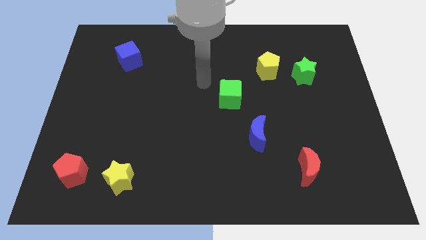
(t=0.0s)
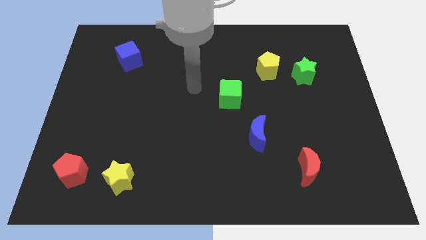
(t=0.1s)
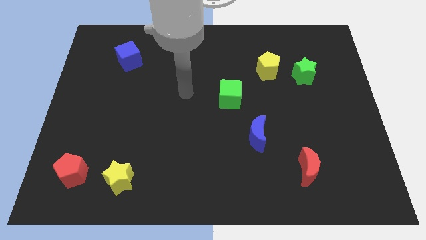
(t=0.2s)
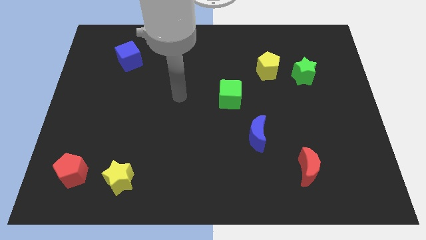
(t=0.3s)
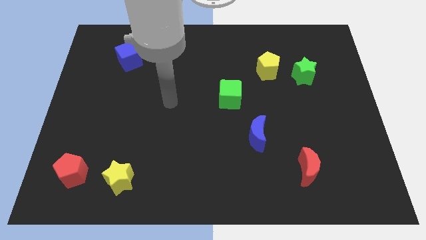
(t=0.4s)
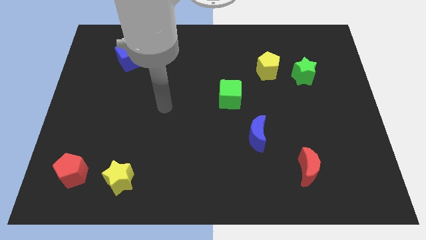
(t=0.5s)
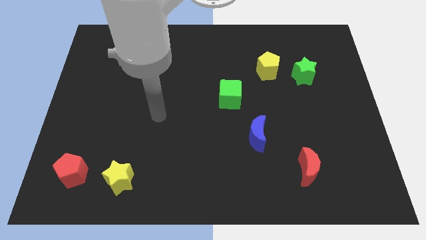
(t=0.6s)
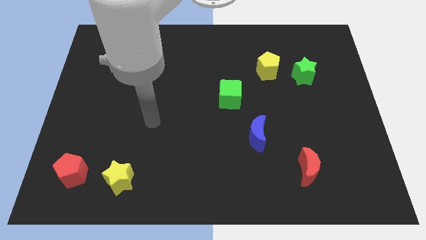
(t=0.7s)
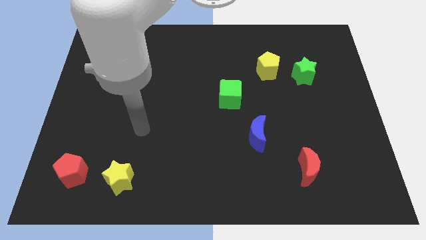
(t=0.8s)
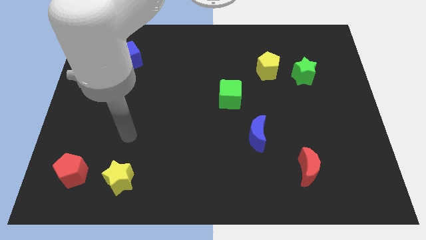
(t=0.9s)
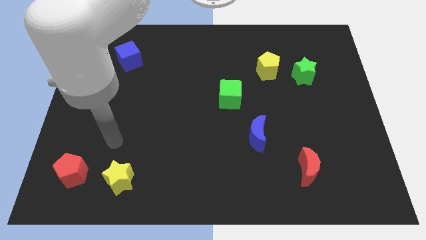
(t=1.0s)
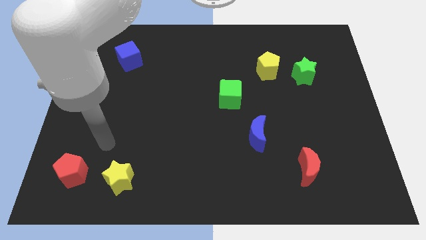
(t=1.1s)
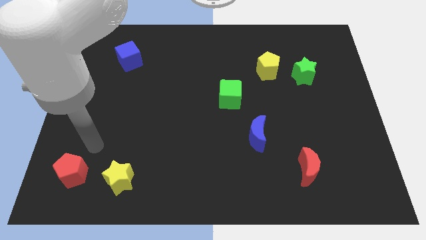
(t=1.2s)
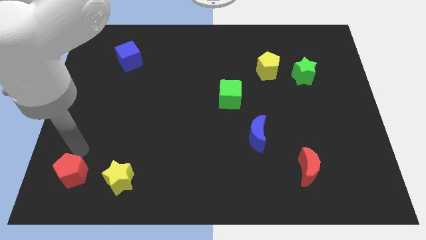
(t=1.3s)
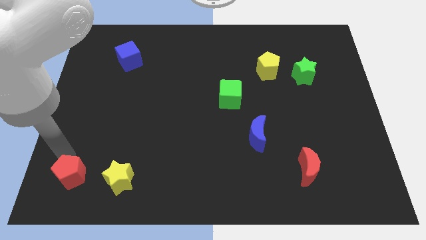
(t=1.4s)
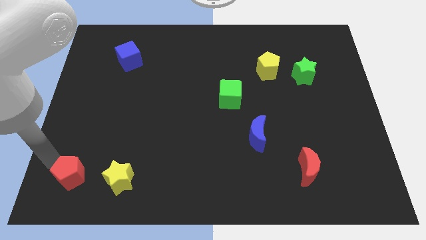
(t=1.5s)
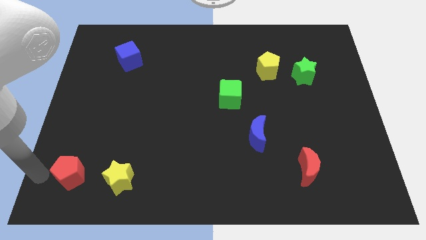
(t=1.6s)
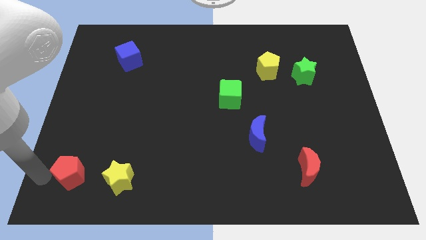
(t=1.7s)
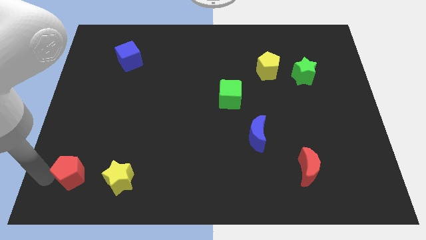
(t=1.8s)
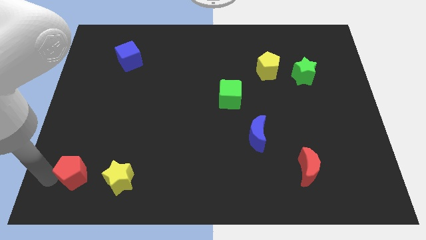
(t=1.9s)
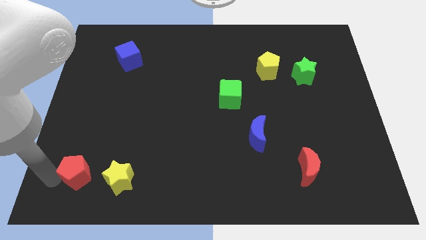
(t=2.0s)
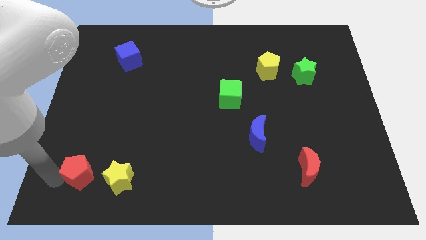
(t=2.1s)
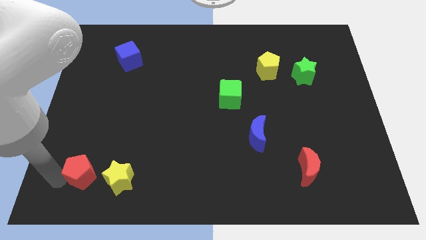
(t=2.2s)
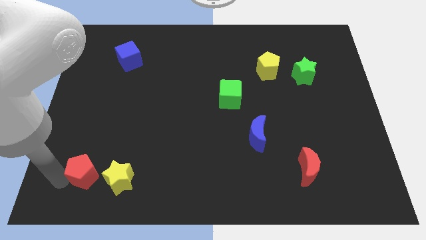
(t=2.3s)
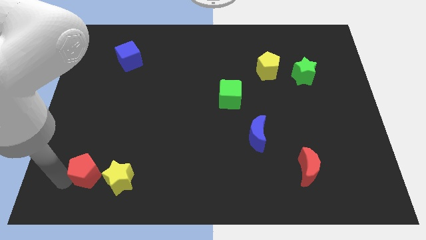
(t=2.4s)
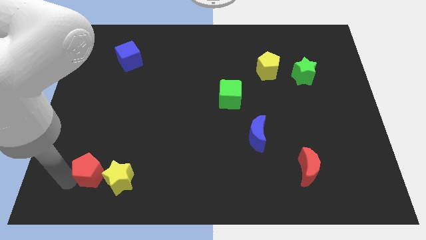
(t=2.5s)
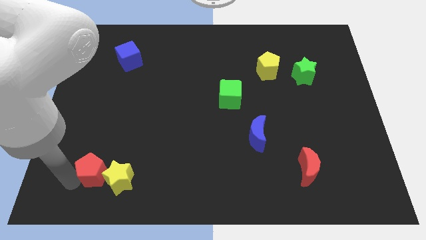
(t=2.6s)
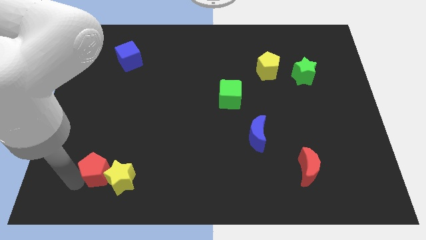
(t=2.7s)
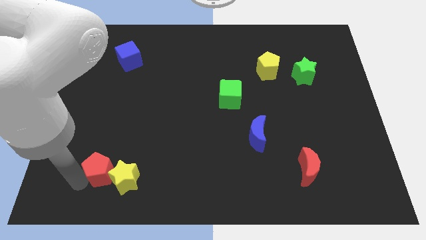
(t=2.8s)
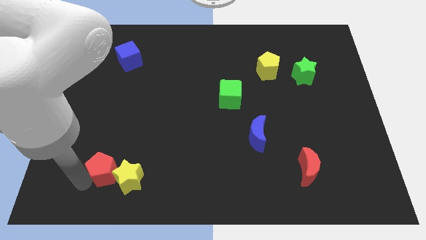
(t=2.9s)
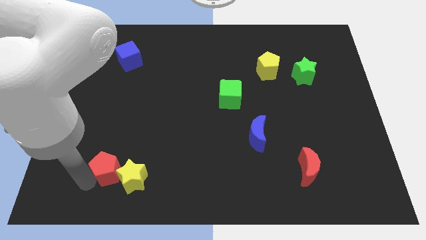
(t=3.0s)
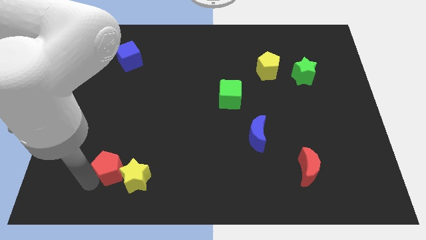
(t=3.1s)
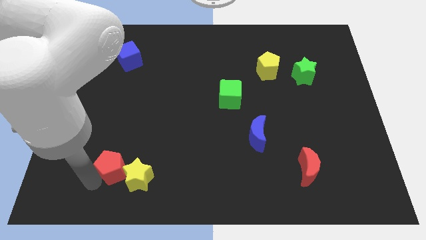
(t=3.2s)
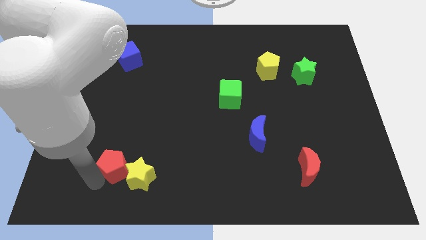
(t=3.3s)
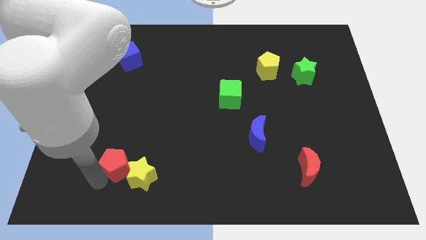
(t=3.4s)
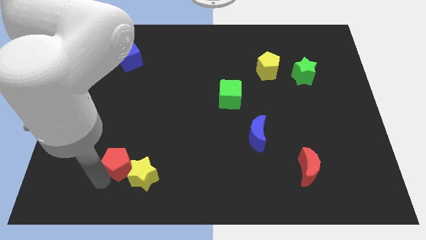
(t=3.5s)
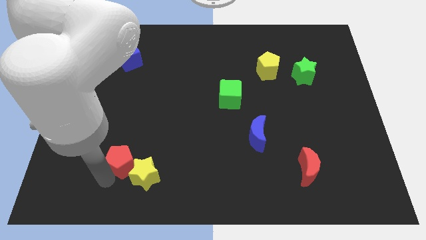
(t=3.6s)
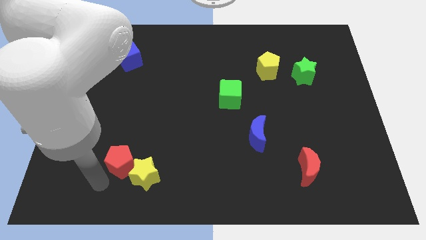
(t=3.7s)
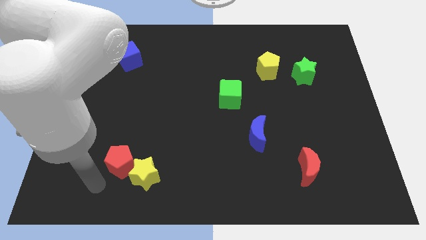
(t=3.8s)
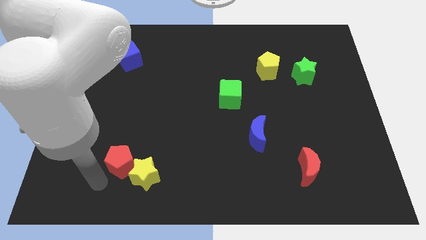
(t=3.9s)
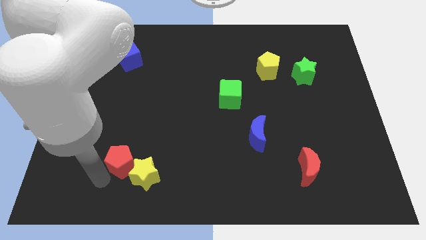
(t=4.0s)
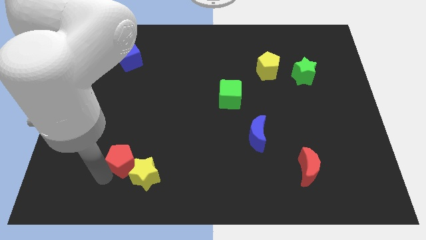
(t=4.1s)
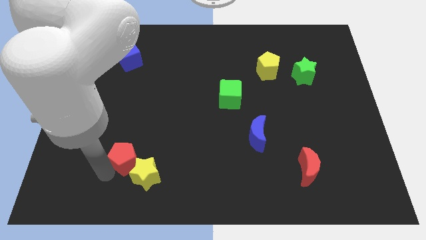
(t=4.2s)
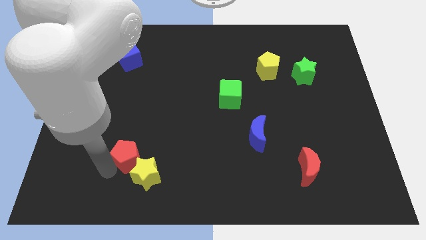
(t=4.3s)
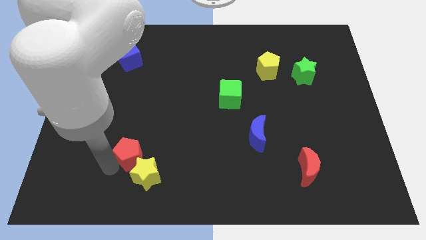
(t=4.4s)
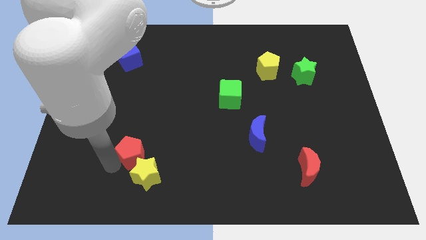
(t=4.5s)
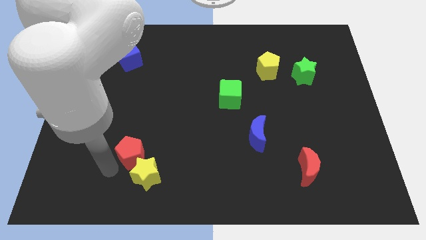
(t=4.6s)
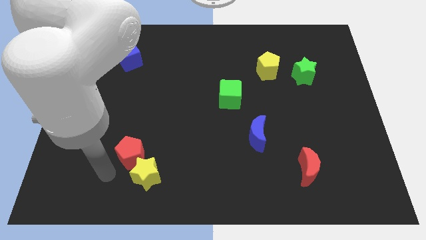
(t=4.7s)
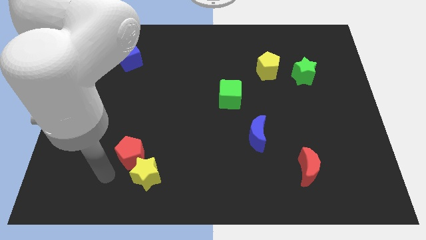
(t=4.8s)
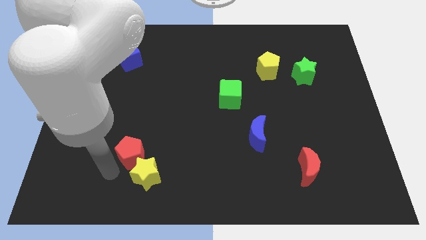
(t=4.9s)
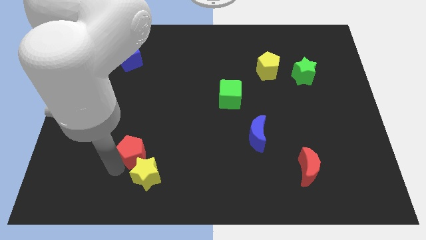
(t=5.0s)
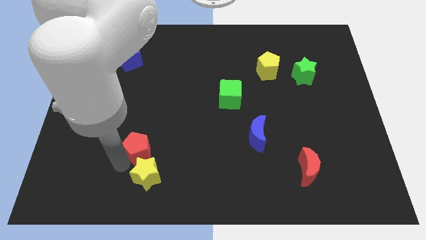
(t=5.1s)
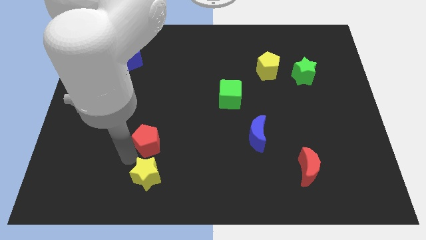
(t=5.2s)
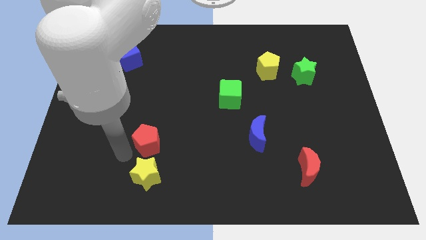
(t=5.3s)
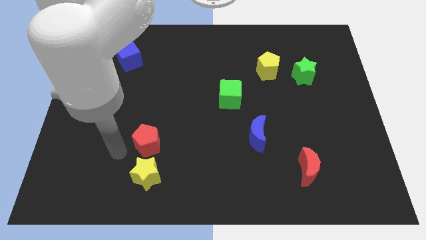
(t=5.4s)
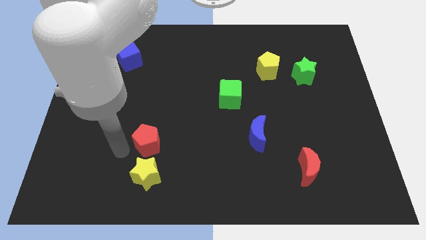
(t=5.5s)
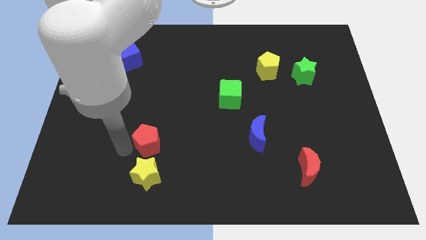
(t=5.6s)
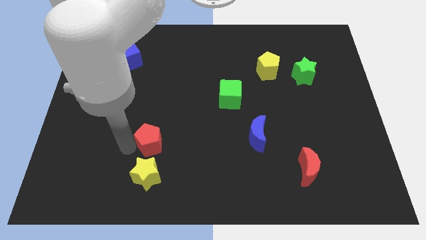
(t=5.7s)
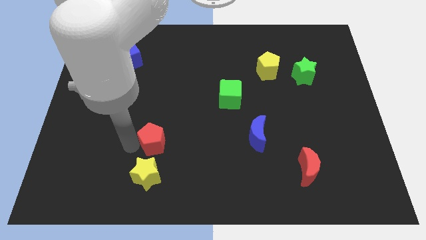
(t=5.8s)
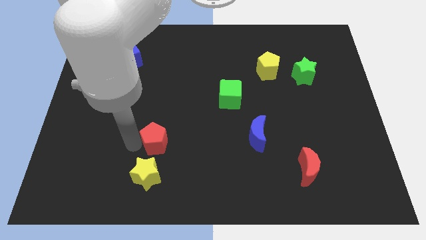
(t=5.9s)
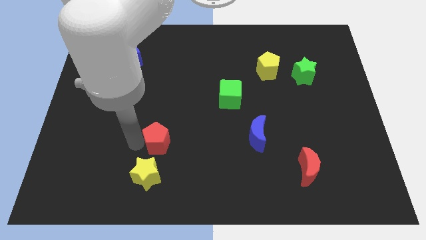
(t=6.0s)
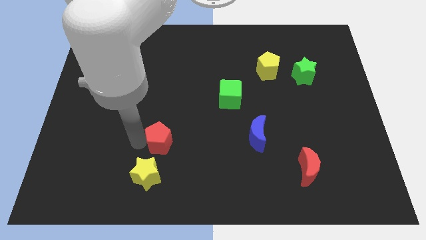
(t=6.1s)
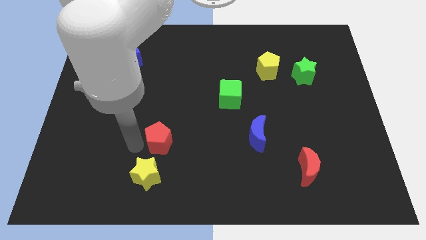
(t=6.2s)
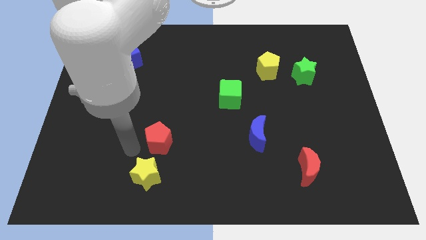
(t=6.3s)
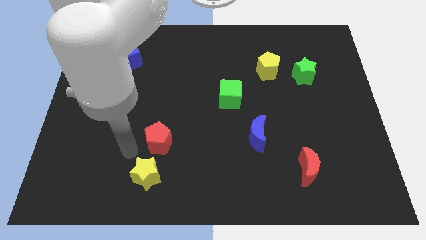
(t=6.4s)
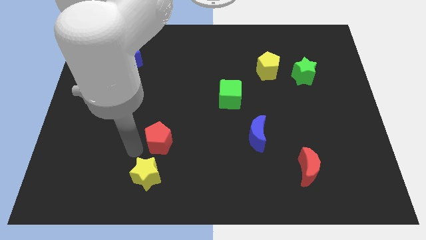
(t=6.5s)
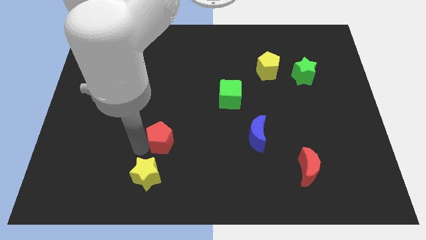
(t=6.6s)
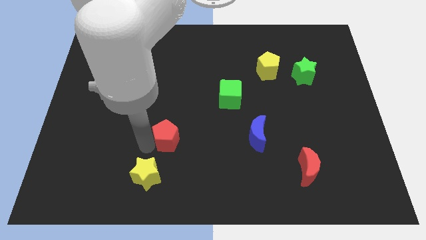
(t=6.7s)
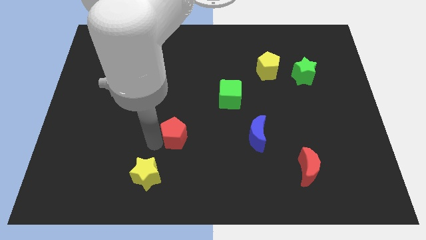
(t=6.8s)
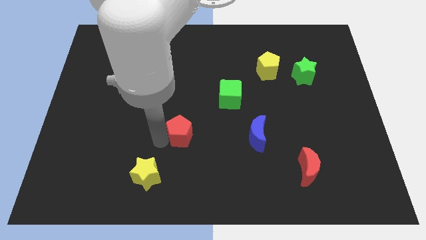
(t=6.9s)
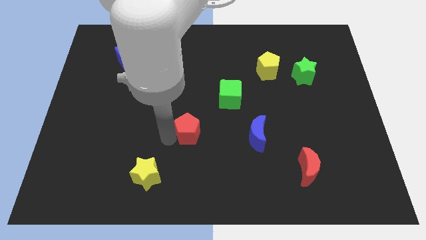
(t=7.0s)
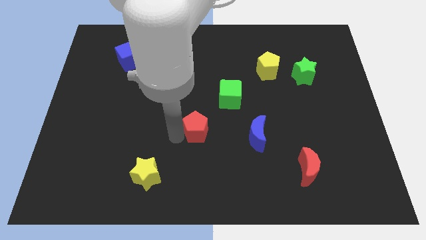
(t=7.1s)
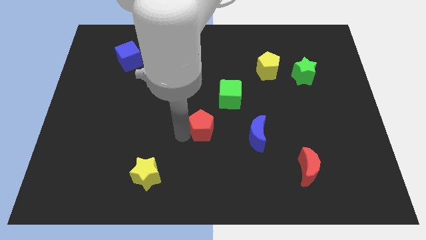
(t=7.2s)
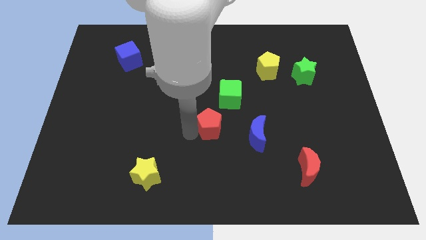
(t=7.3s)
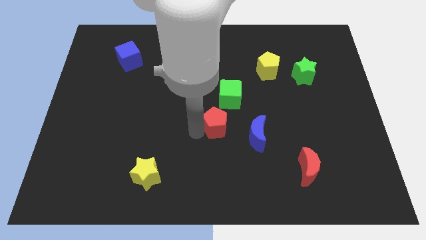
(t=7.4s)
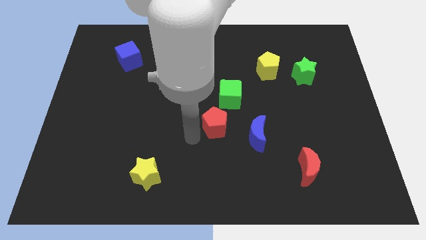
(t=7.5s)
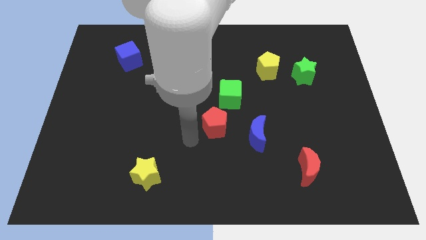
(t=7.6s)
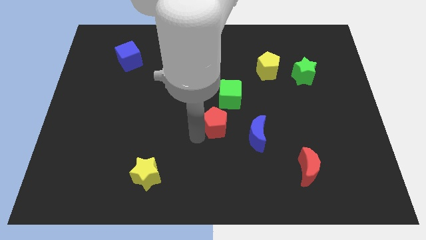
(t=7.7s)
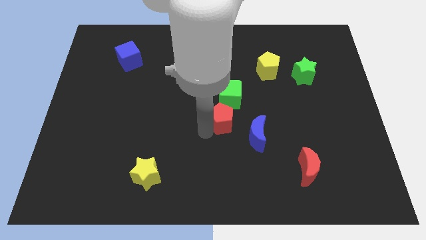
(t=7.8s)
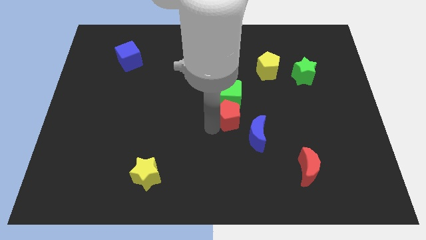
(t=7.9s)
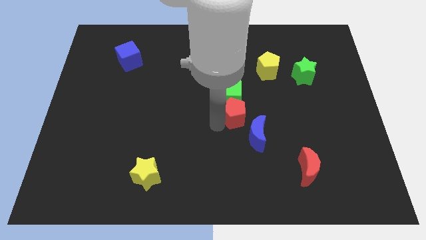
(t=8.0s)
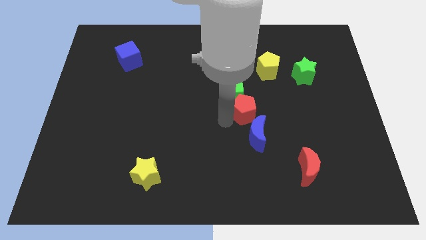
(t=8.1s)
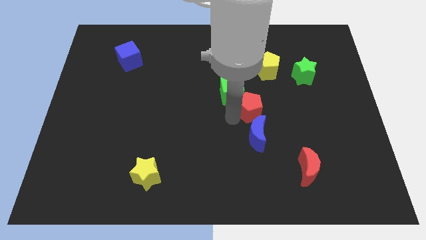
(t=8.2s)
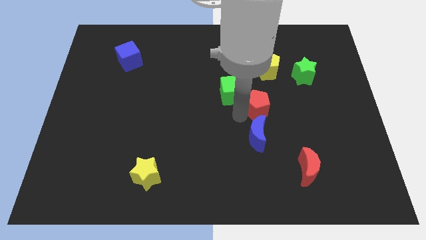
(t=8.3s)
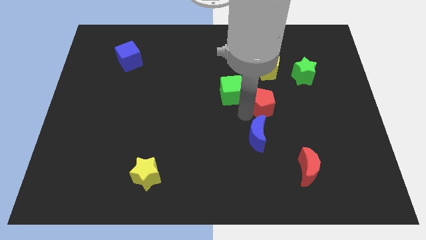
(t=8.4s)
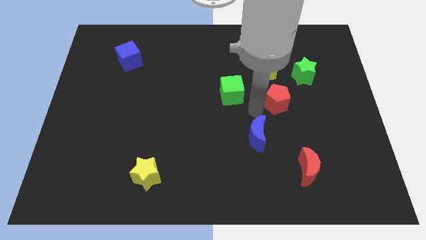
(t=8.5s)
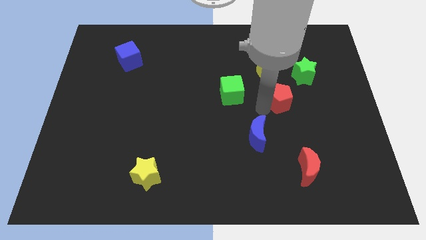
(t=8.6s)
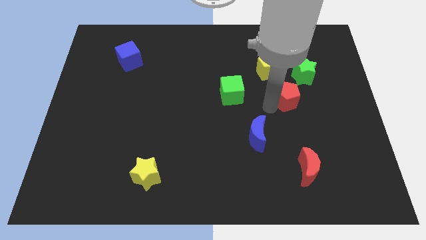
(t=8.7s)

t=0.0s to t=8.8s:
move the red pentagon diagonally down and to the right of the yellow pentagon
